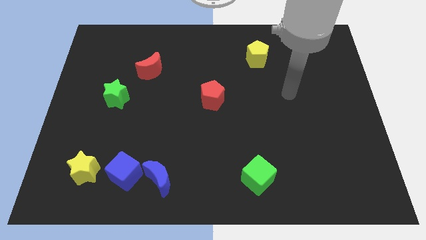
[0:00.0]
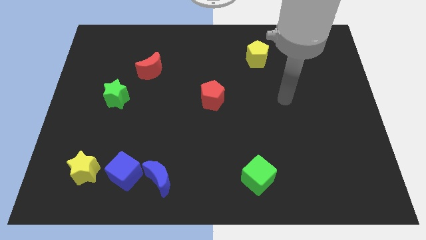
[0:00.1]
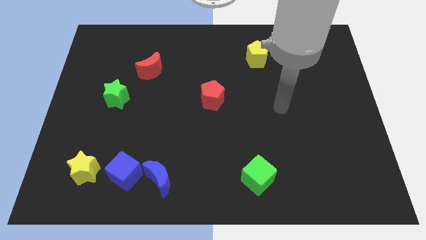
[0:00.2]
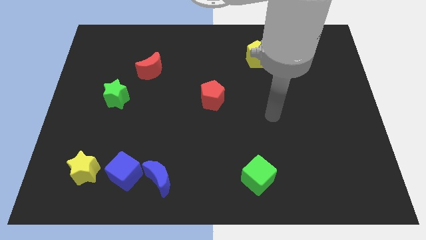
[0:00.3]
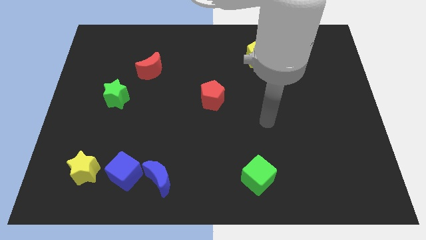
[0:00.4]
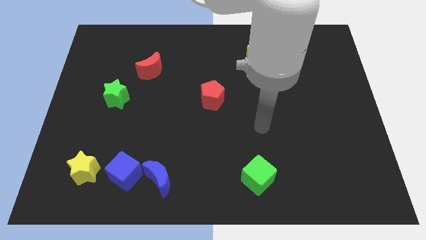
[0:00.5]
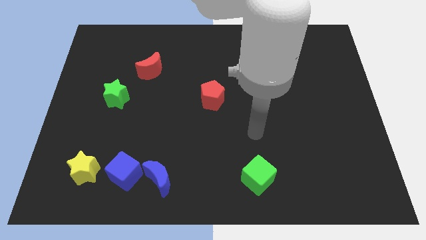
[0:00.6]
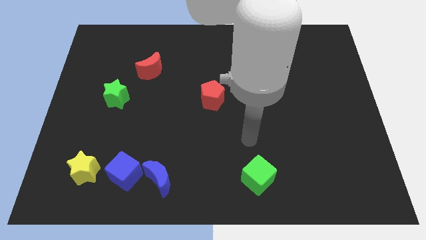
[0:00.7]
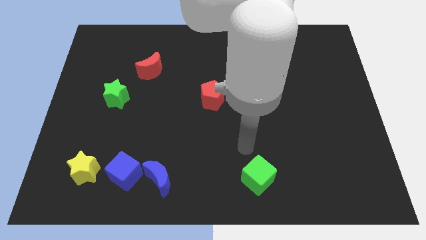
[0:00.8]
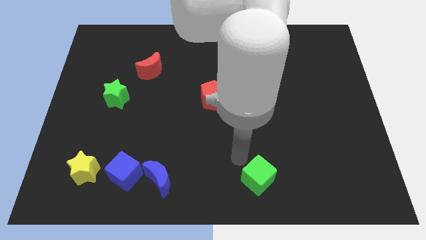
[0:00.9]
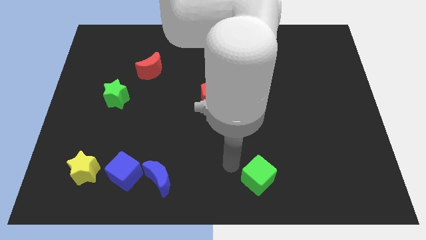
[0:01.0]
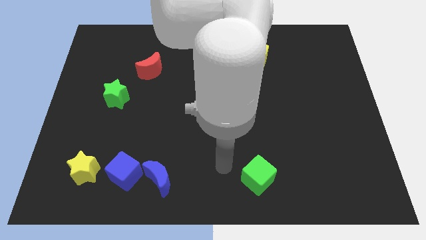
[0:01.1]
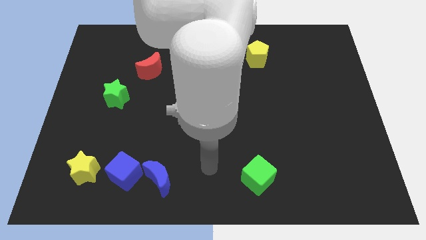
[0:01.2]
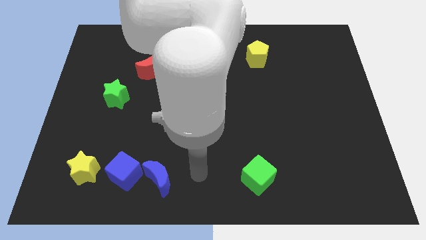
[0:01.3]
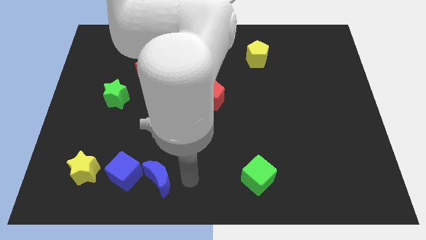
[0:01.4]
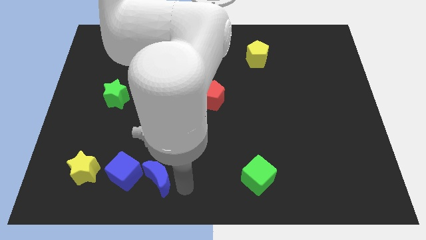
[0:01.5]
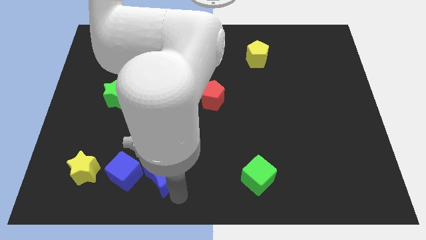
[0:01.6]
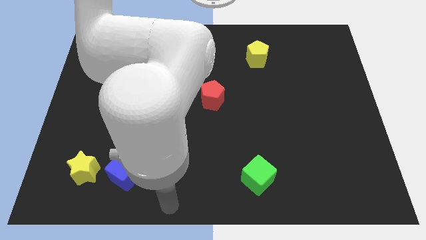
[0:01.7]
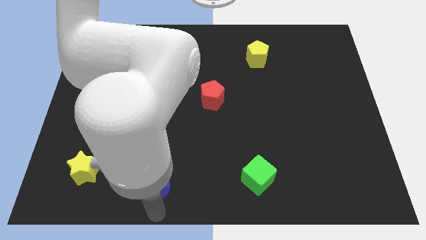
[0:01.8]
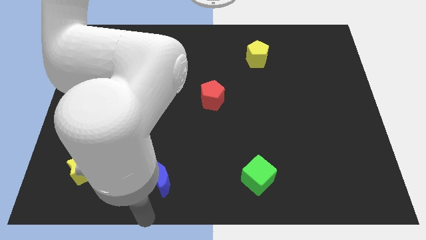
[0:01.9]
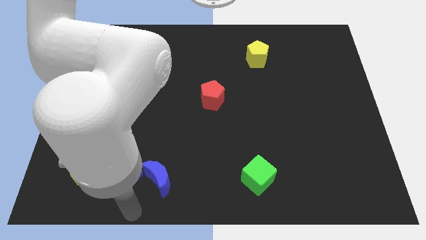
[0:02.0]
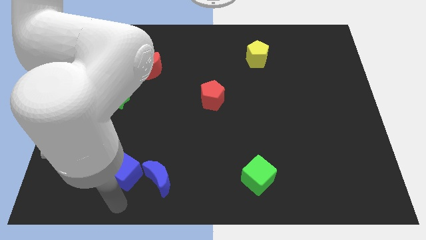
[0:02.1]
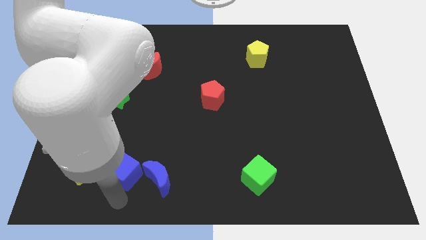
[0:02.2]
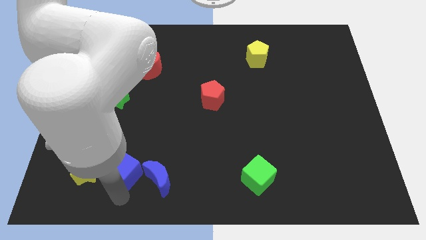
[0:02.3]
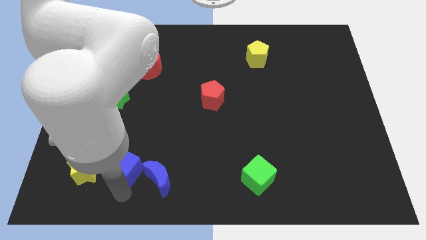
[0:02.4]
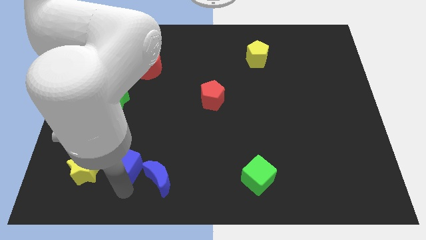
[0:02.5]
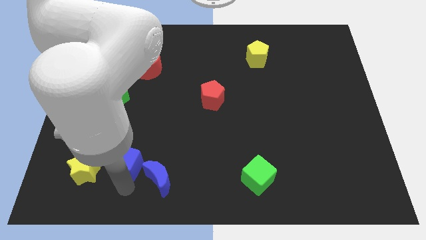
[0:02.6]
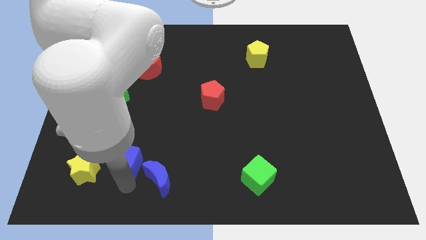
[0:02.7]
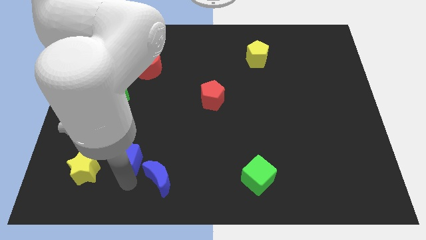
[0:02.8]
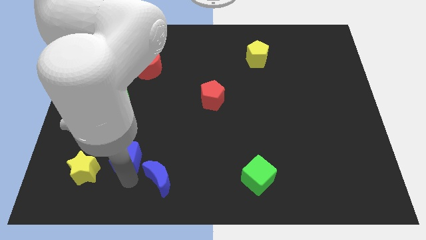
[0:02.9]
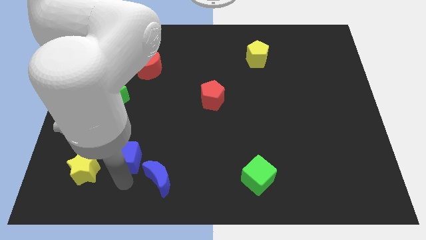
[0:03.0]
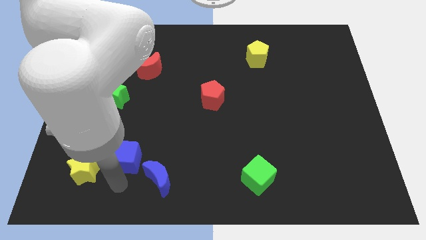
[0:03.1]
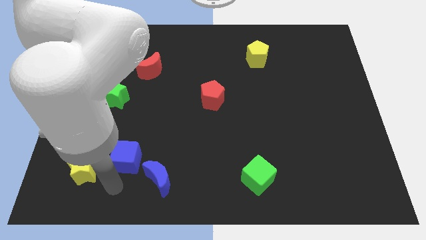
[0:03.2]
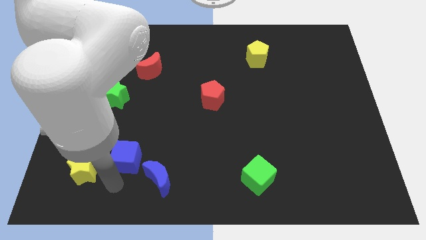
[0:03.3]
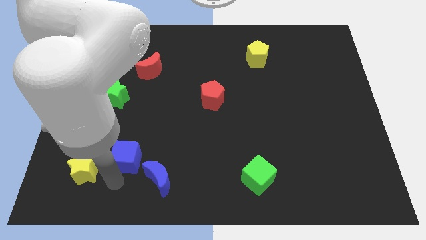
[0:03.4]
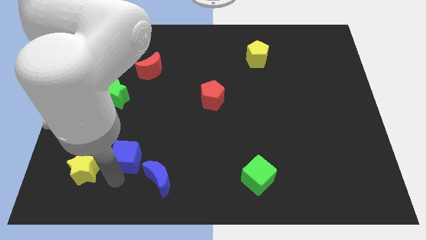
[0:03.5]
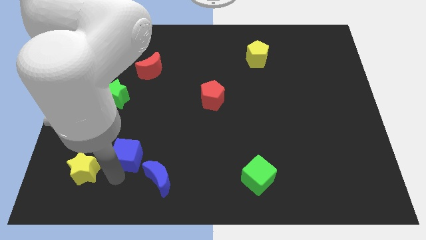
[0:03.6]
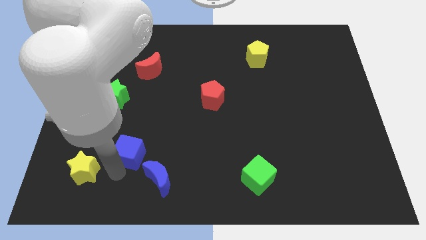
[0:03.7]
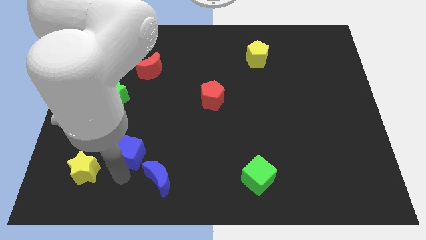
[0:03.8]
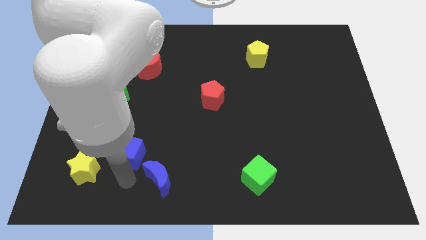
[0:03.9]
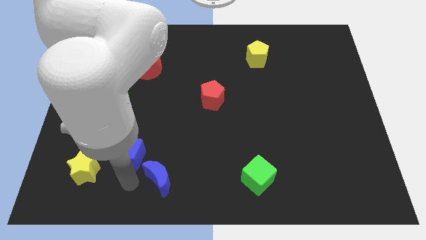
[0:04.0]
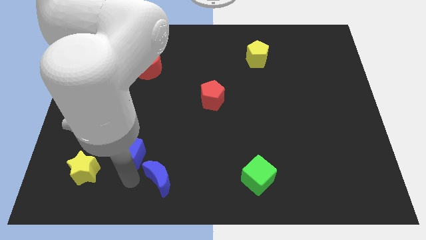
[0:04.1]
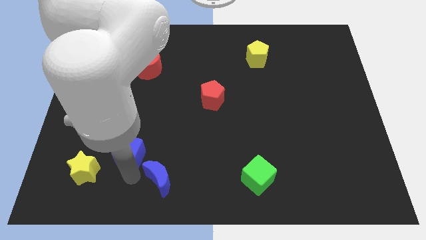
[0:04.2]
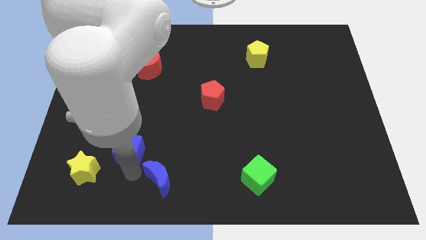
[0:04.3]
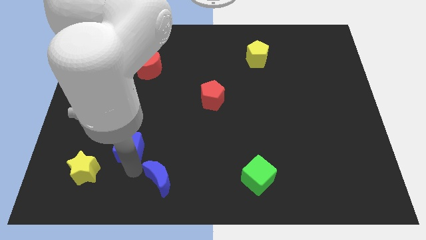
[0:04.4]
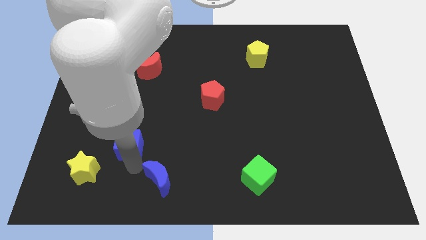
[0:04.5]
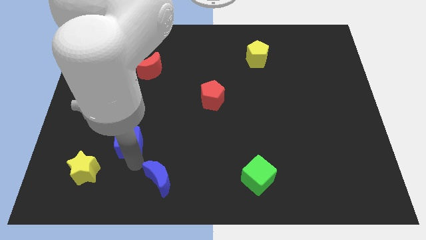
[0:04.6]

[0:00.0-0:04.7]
slightly slide the blue cube upwards

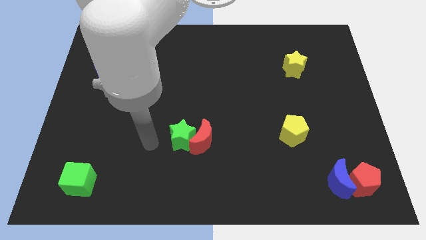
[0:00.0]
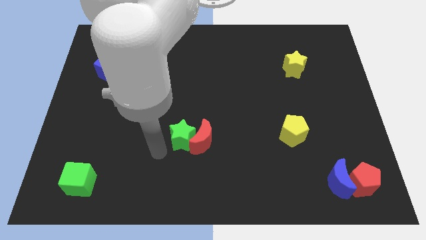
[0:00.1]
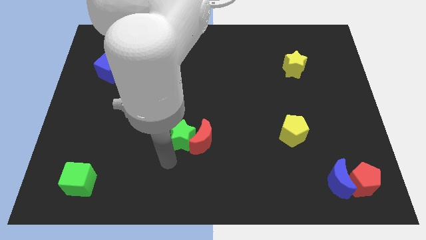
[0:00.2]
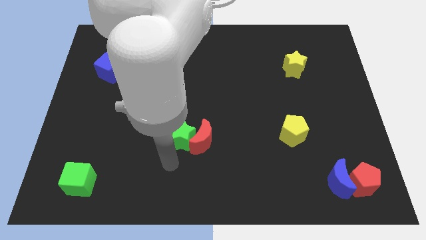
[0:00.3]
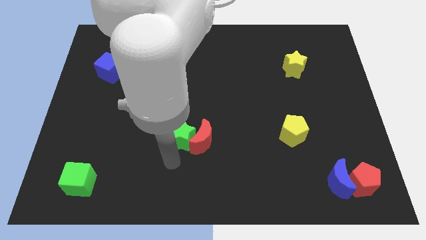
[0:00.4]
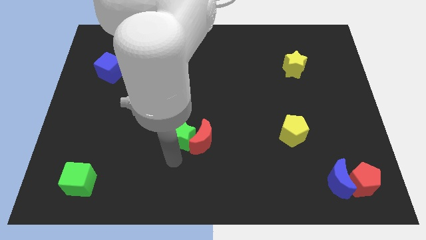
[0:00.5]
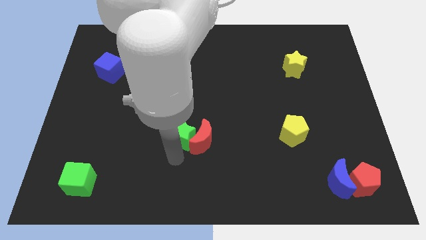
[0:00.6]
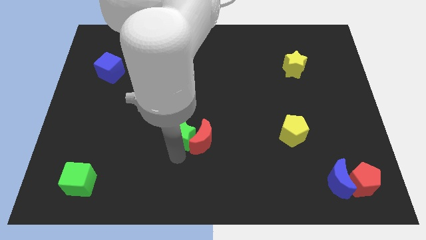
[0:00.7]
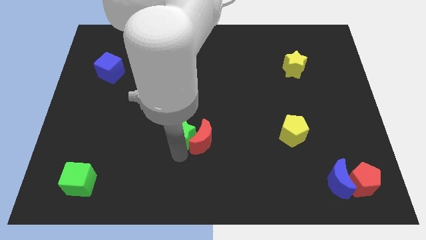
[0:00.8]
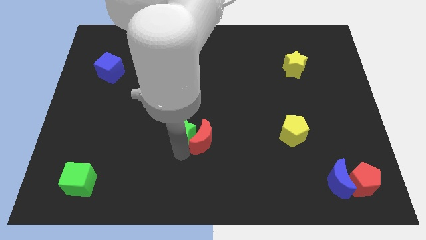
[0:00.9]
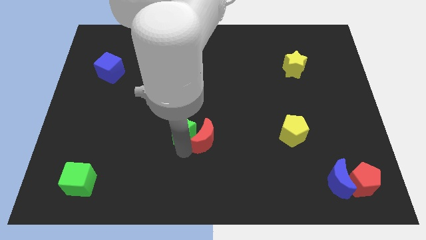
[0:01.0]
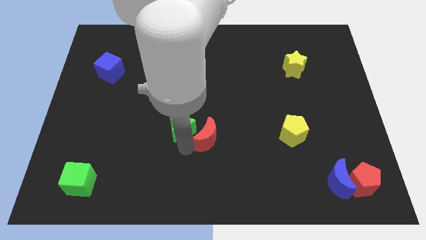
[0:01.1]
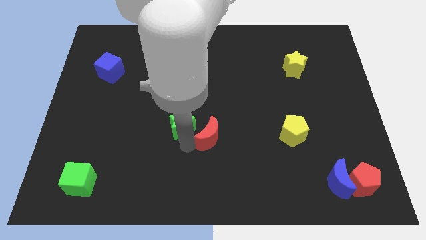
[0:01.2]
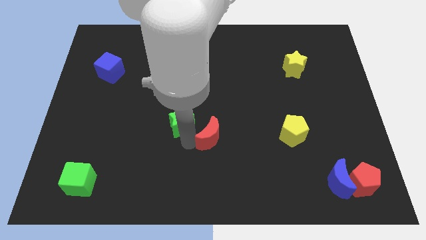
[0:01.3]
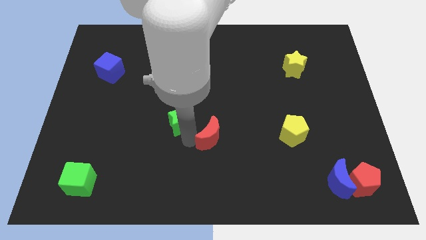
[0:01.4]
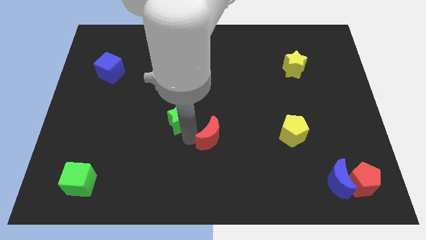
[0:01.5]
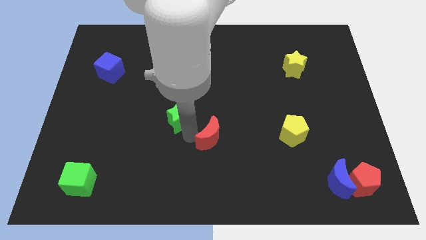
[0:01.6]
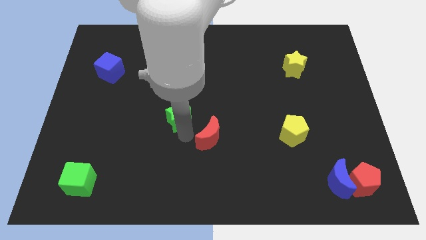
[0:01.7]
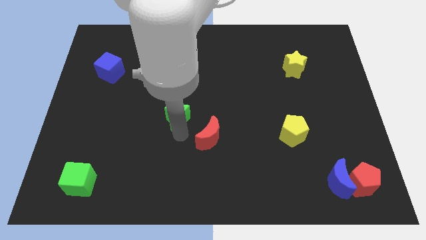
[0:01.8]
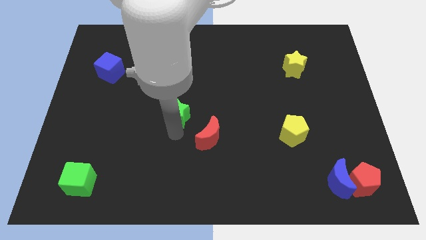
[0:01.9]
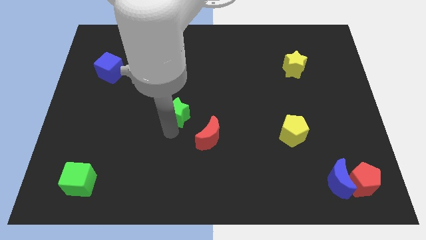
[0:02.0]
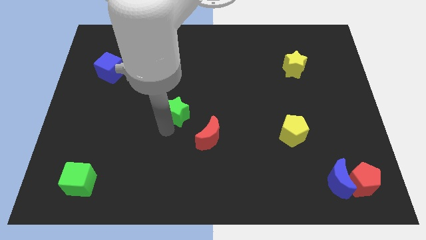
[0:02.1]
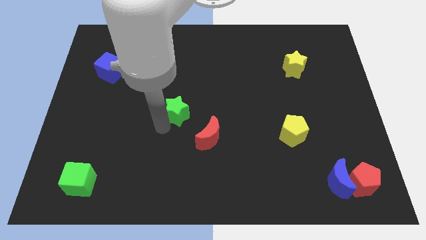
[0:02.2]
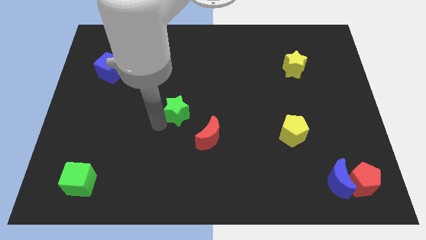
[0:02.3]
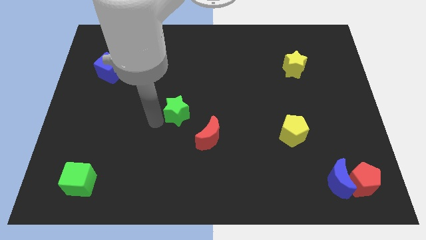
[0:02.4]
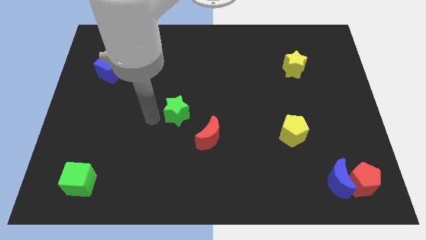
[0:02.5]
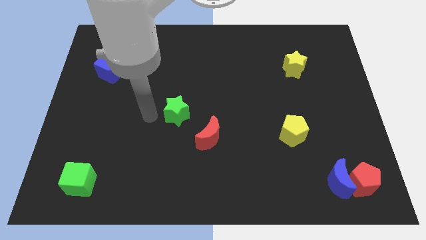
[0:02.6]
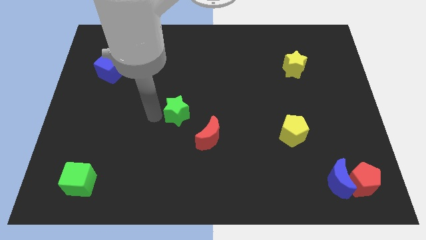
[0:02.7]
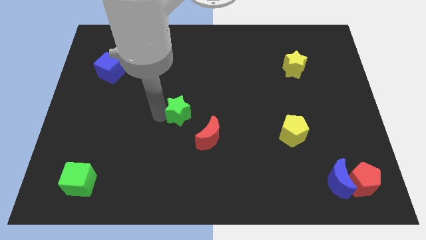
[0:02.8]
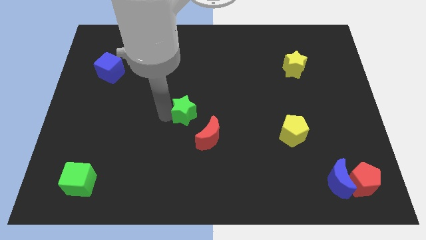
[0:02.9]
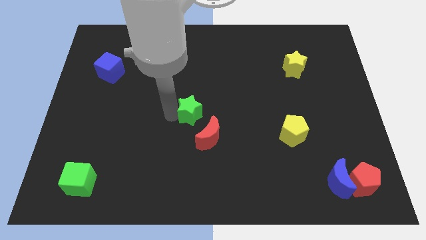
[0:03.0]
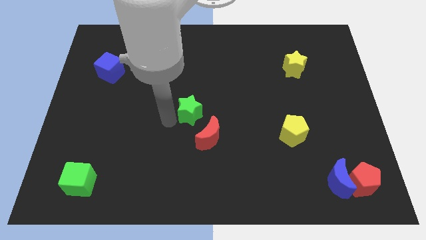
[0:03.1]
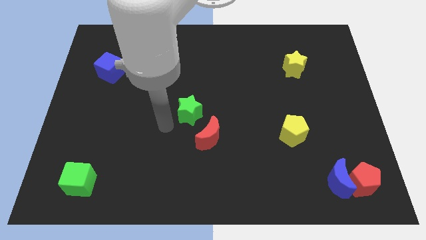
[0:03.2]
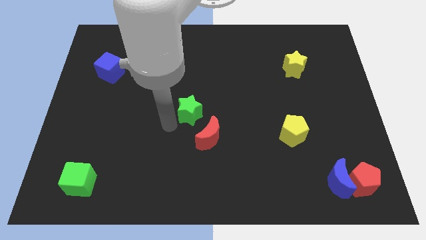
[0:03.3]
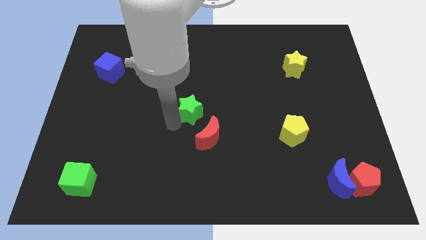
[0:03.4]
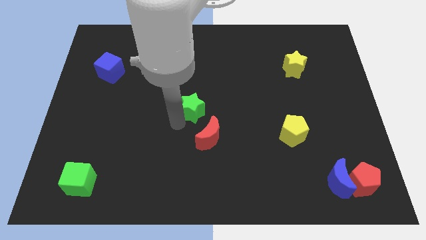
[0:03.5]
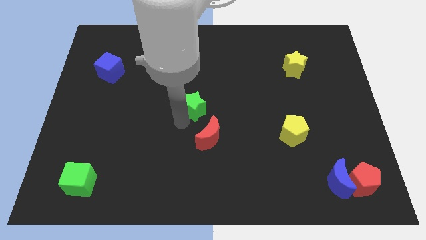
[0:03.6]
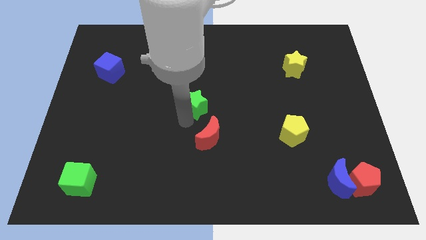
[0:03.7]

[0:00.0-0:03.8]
push the green star a little up and then to the right
